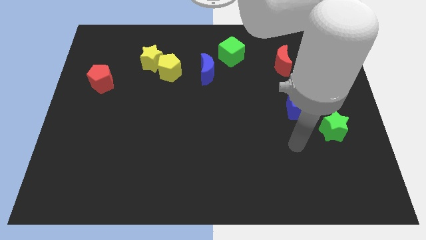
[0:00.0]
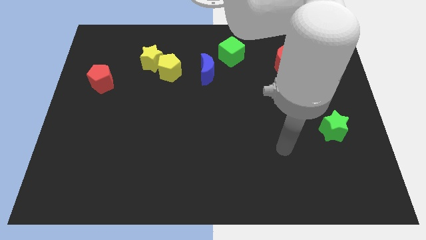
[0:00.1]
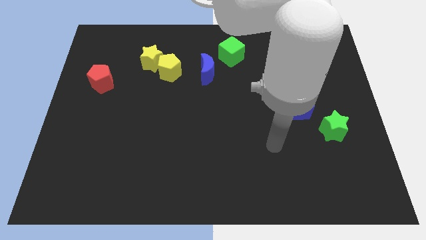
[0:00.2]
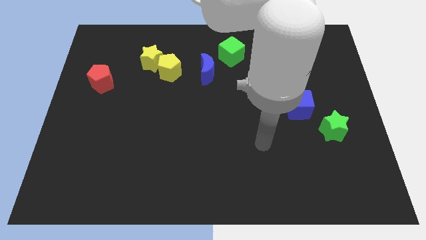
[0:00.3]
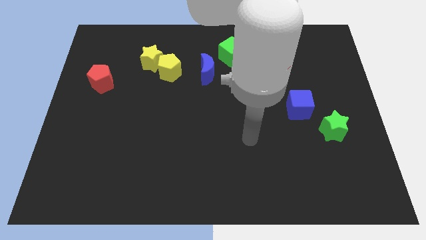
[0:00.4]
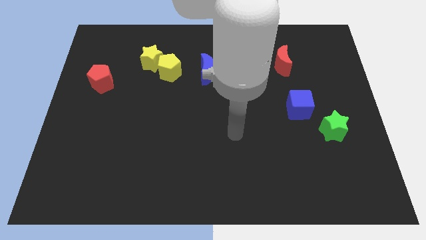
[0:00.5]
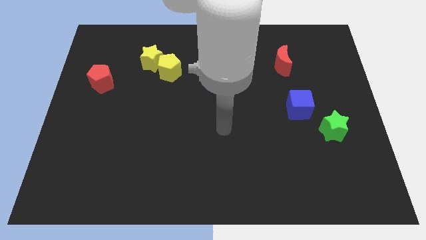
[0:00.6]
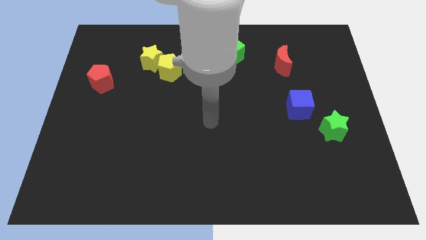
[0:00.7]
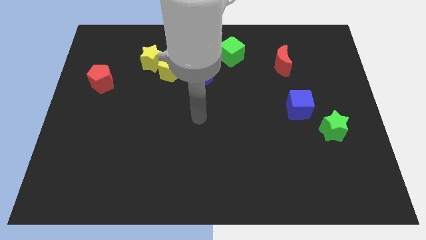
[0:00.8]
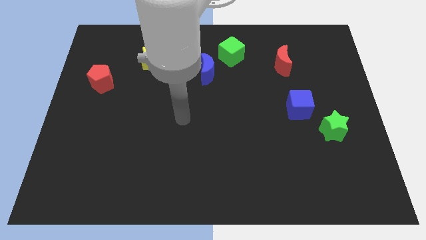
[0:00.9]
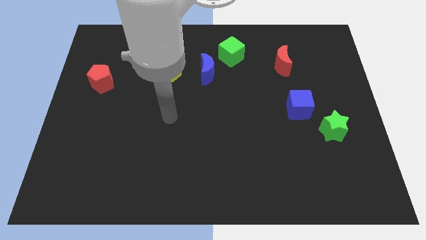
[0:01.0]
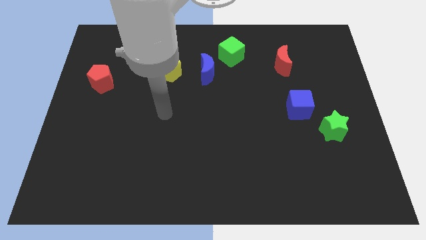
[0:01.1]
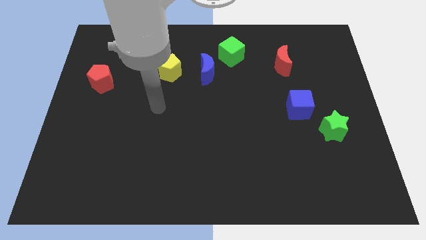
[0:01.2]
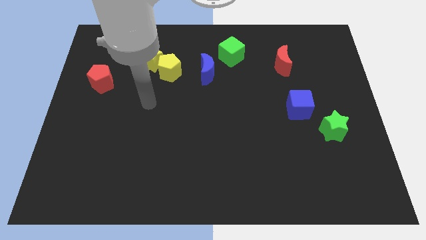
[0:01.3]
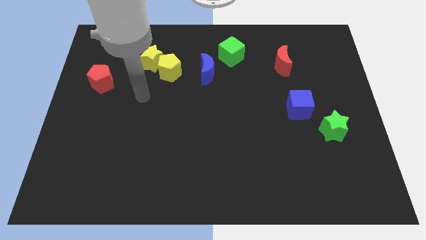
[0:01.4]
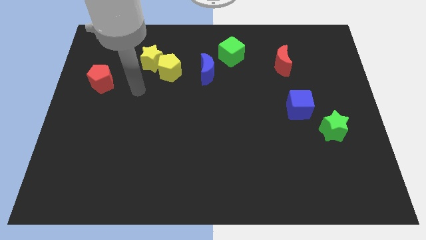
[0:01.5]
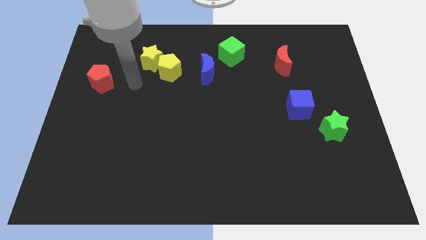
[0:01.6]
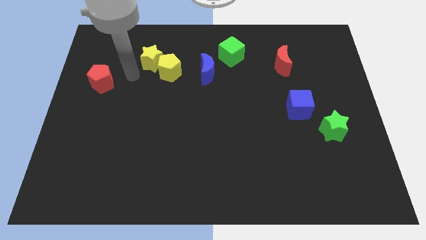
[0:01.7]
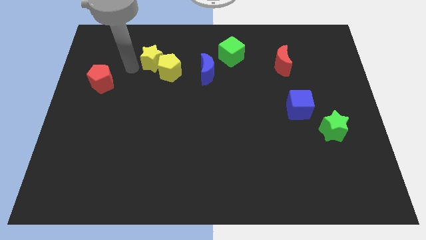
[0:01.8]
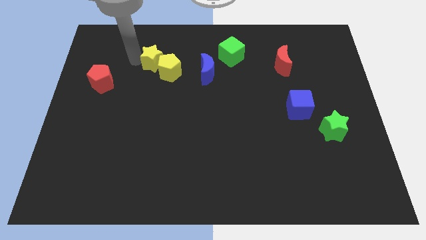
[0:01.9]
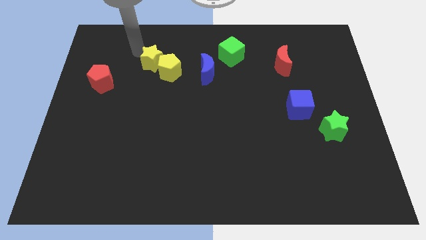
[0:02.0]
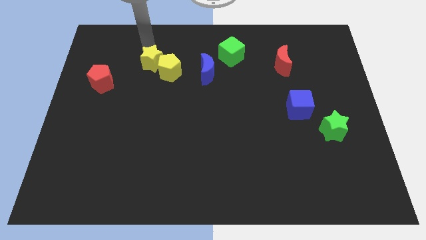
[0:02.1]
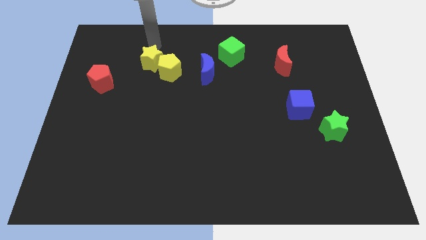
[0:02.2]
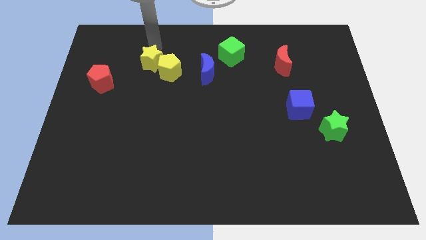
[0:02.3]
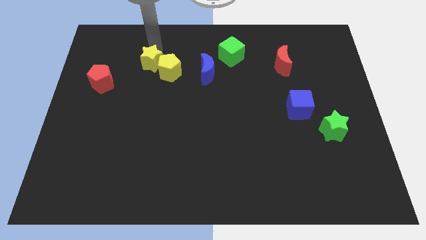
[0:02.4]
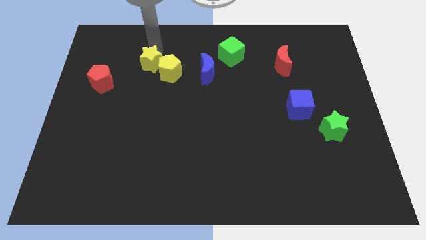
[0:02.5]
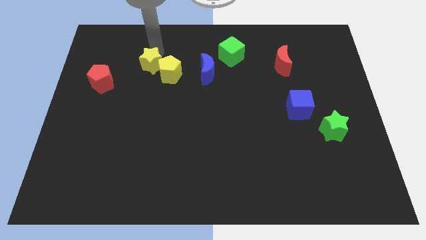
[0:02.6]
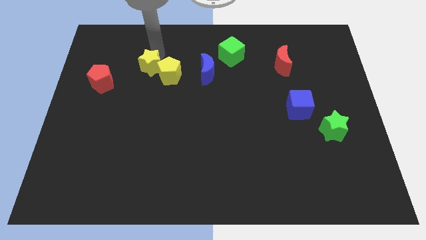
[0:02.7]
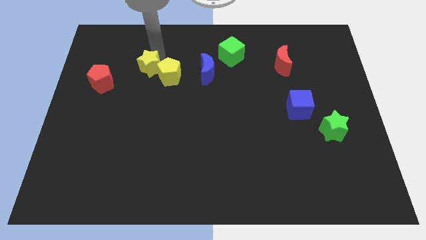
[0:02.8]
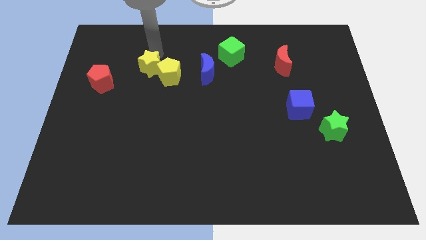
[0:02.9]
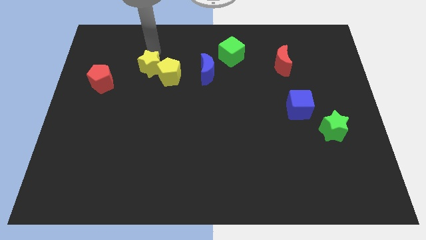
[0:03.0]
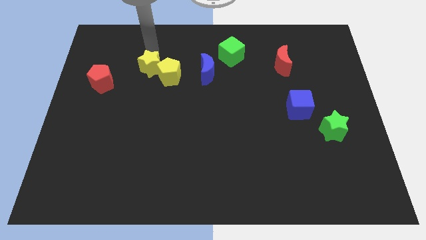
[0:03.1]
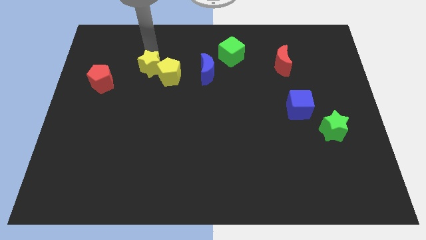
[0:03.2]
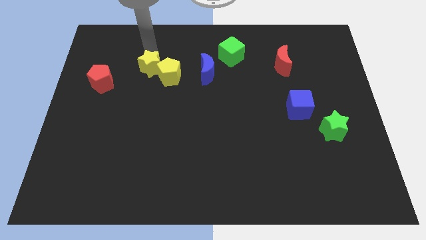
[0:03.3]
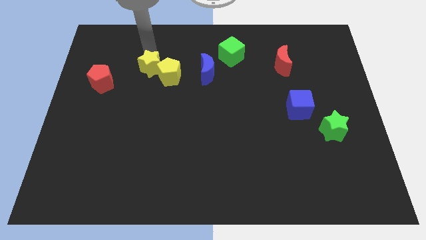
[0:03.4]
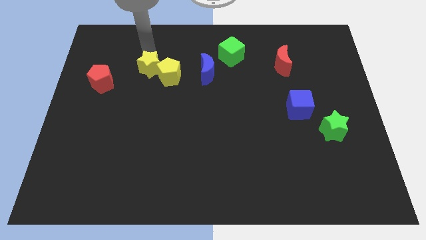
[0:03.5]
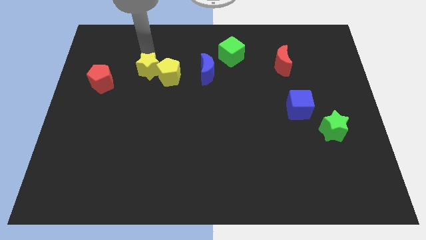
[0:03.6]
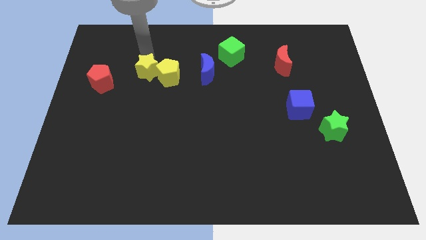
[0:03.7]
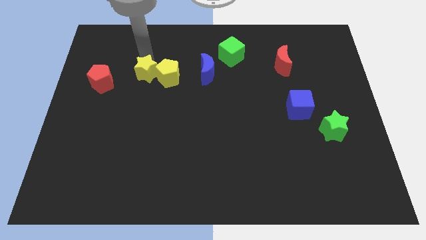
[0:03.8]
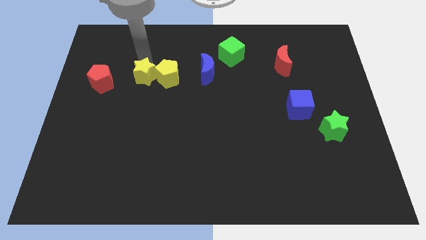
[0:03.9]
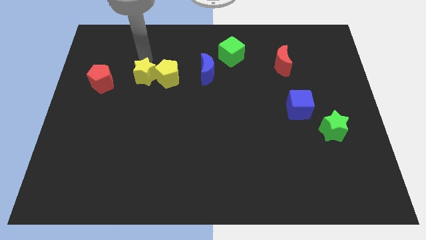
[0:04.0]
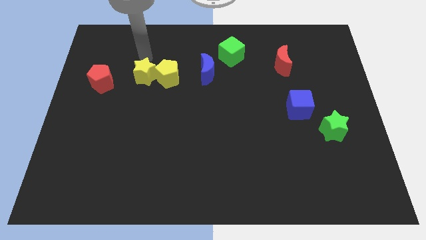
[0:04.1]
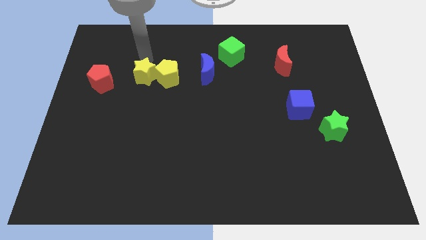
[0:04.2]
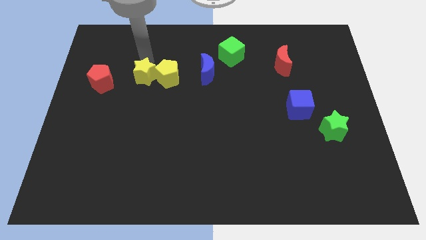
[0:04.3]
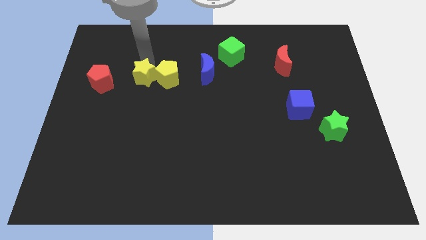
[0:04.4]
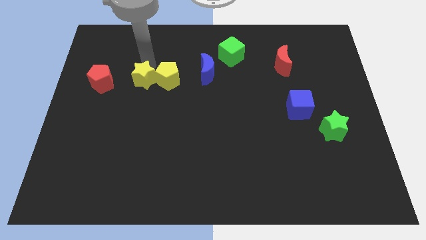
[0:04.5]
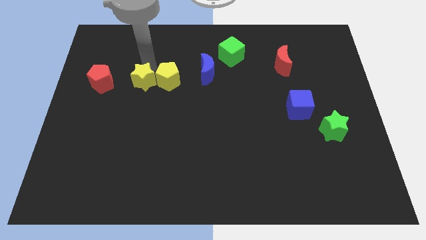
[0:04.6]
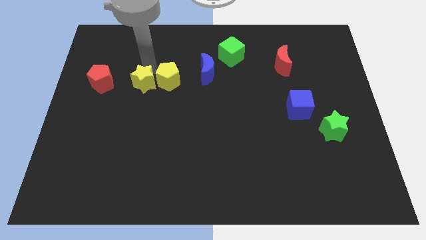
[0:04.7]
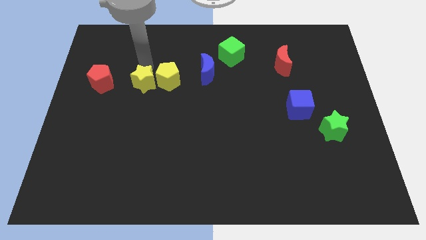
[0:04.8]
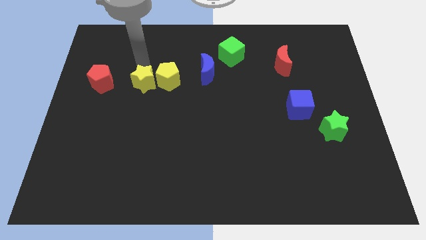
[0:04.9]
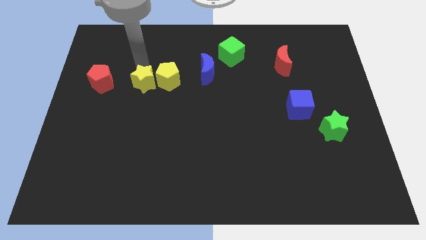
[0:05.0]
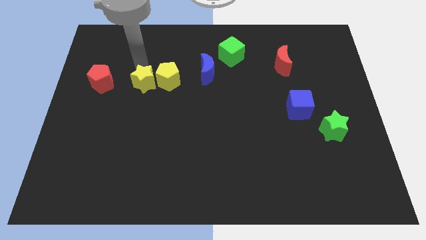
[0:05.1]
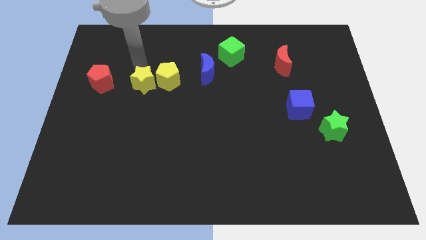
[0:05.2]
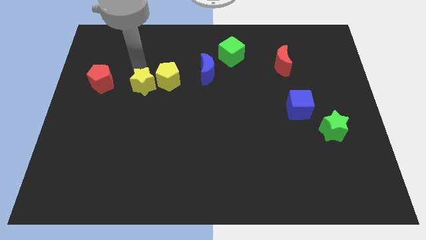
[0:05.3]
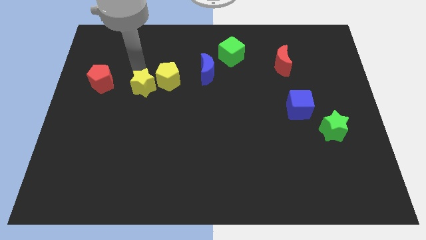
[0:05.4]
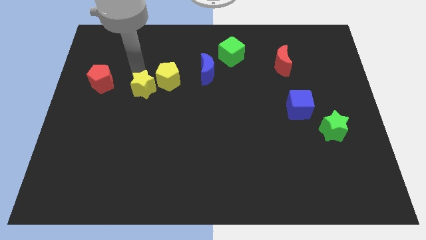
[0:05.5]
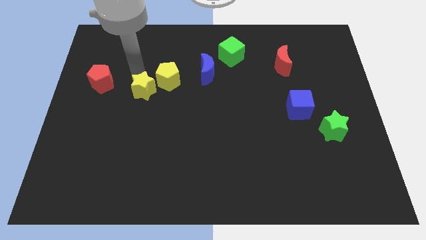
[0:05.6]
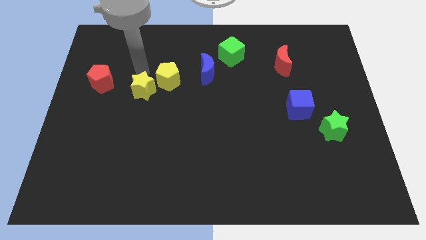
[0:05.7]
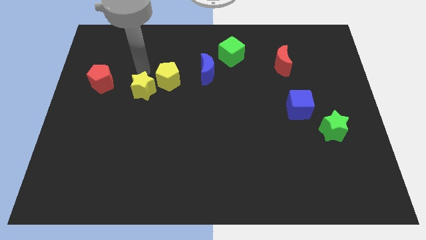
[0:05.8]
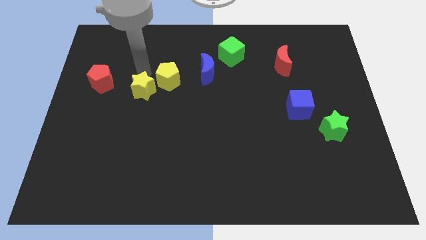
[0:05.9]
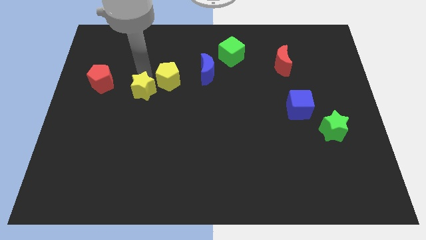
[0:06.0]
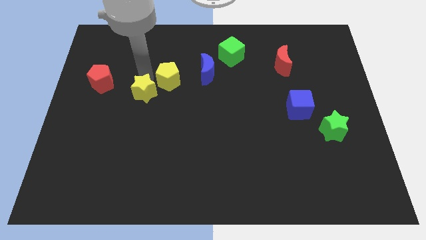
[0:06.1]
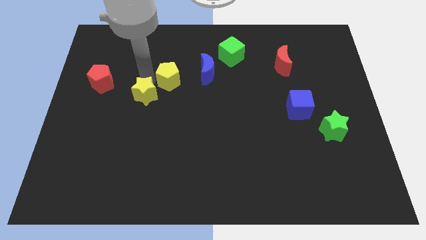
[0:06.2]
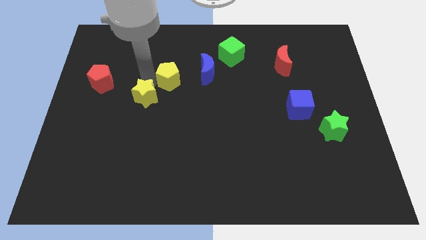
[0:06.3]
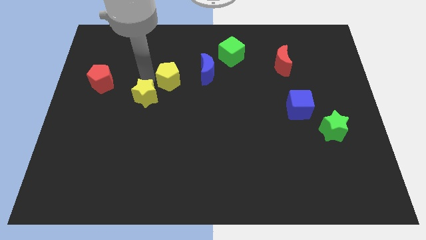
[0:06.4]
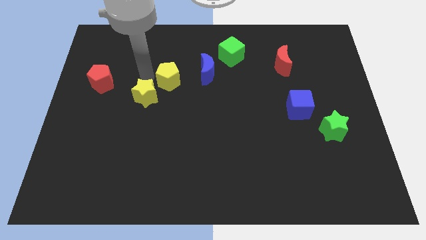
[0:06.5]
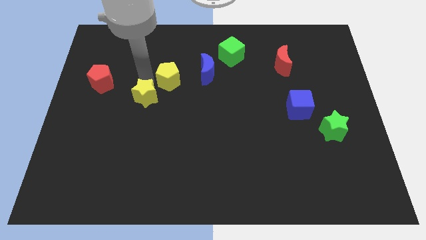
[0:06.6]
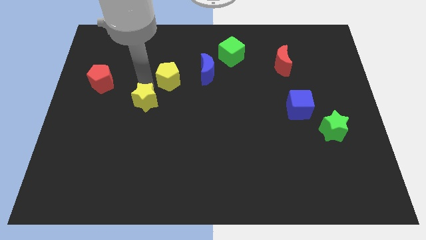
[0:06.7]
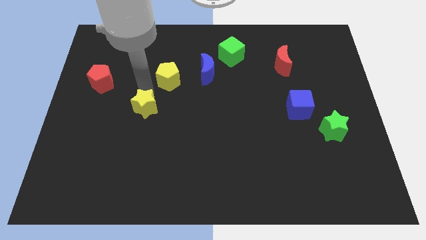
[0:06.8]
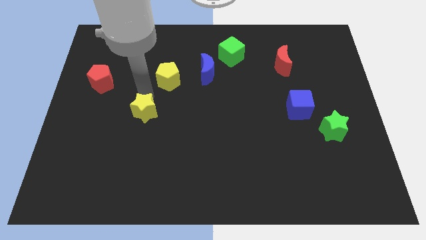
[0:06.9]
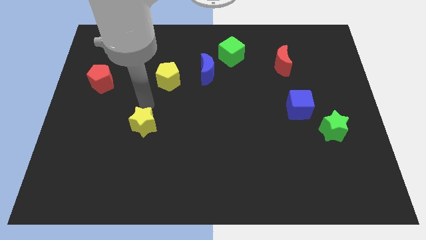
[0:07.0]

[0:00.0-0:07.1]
slide the yellow star down

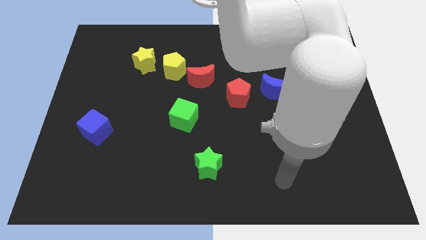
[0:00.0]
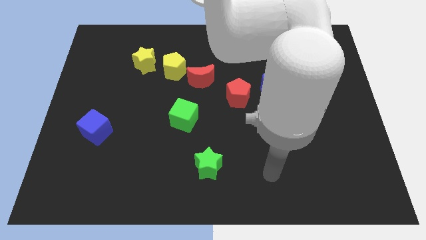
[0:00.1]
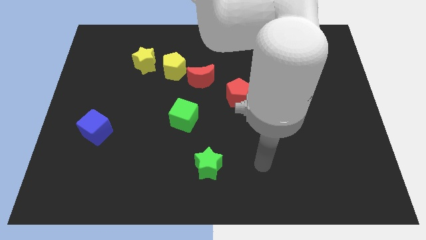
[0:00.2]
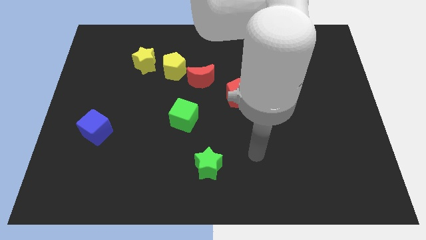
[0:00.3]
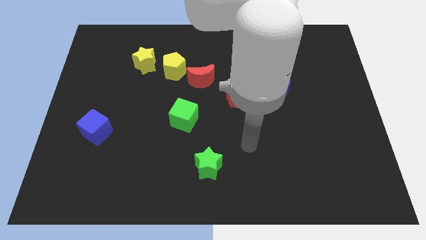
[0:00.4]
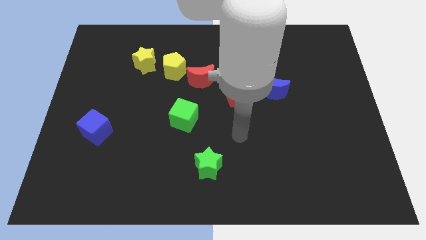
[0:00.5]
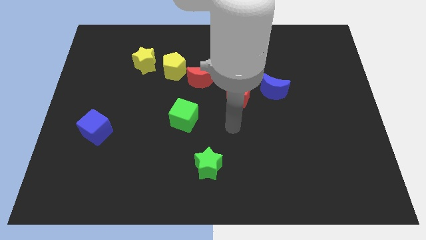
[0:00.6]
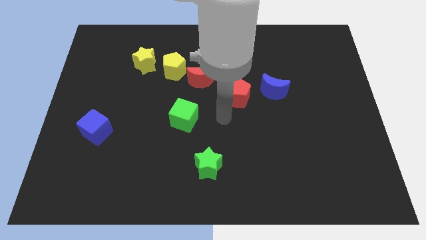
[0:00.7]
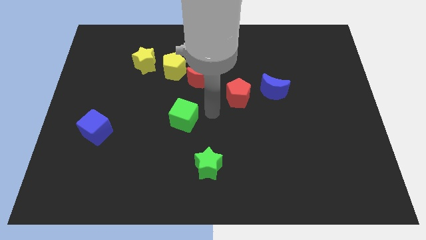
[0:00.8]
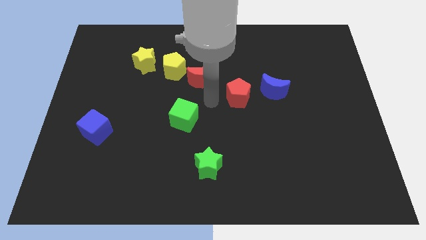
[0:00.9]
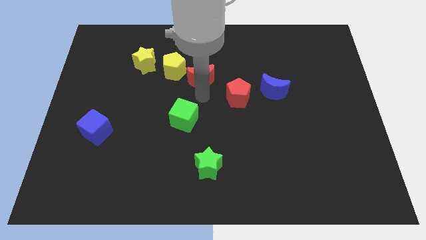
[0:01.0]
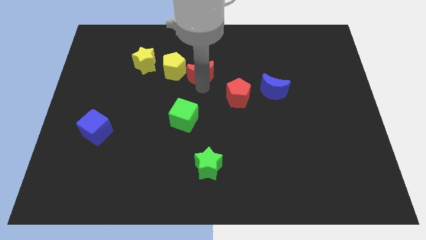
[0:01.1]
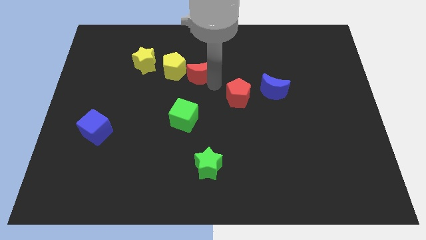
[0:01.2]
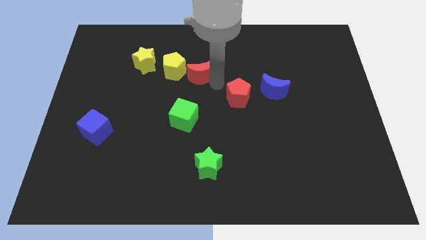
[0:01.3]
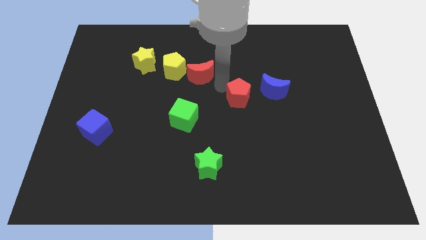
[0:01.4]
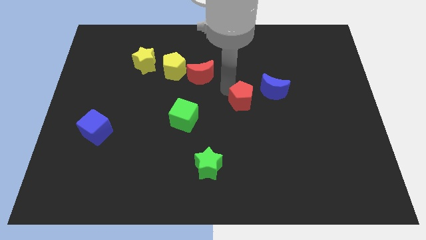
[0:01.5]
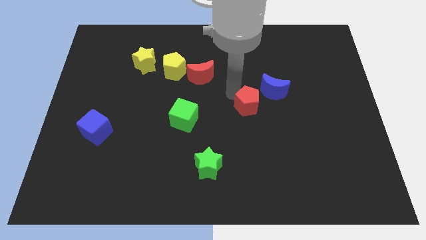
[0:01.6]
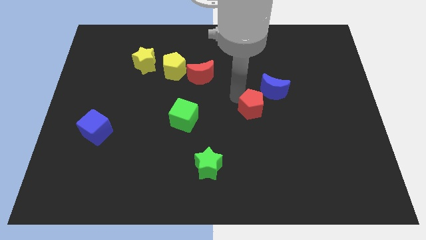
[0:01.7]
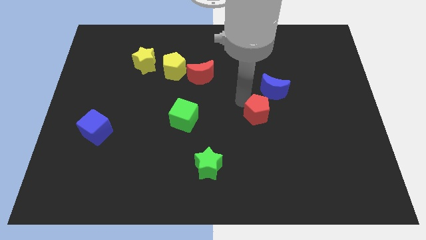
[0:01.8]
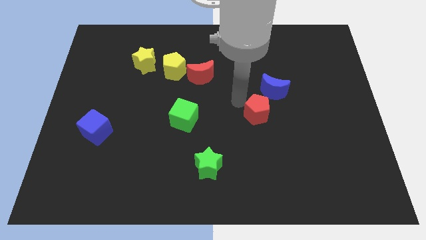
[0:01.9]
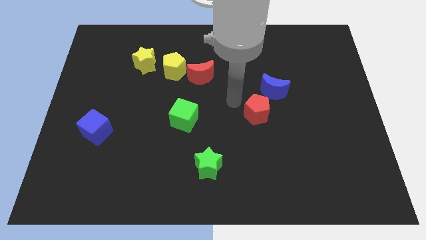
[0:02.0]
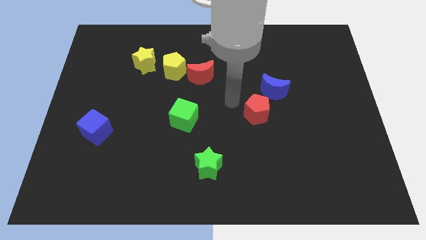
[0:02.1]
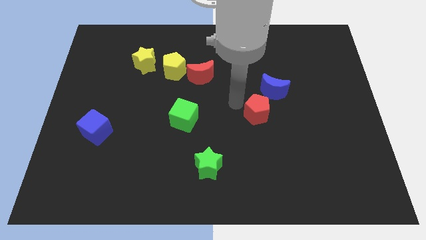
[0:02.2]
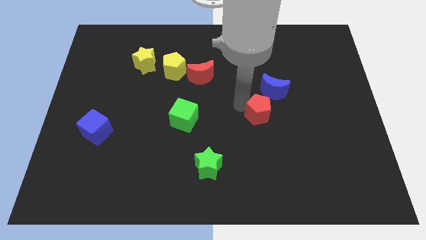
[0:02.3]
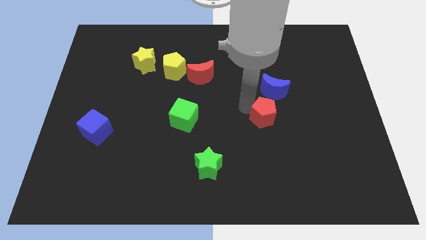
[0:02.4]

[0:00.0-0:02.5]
slightly move the red pentagon diagonally down and right
